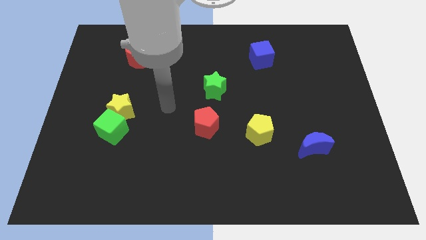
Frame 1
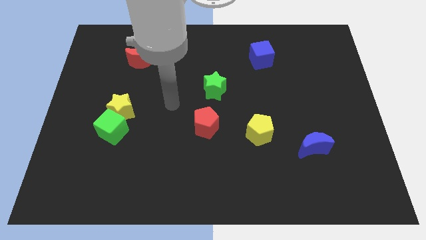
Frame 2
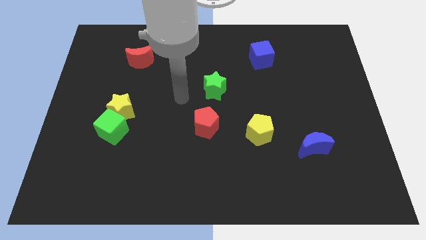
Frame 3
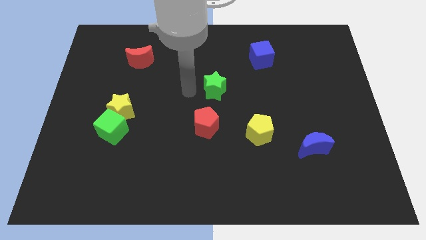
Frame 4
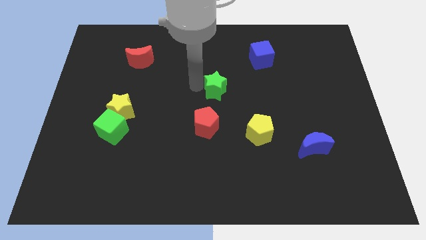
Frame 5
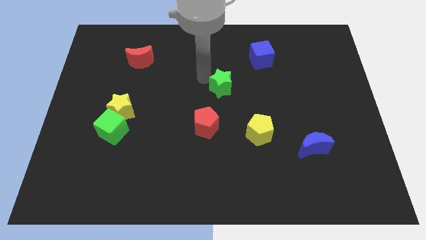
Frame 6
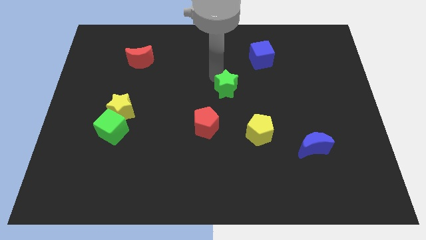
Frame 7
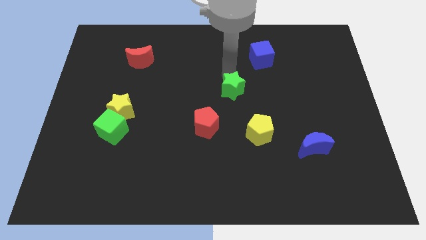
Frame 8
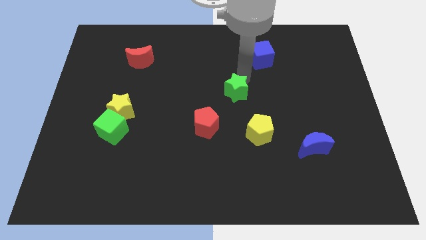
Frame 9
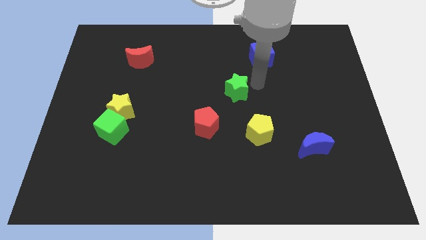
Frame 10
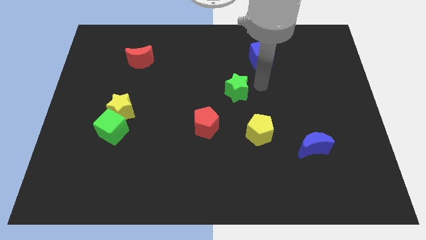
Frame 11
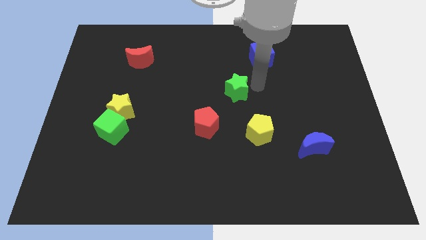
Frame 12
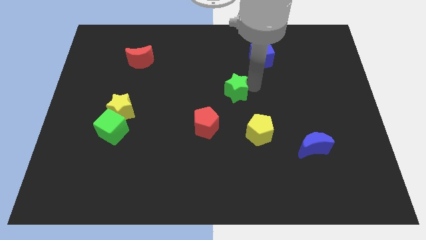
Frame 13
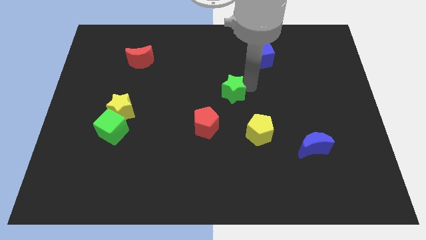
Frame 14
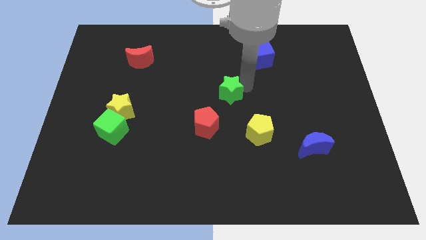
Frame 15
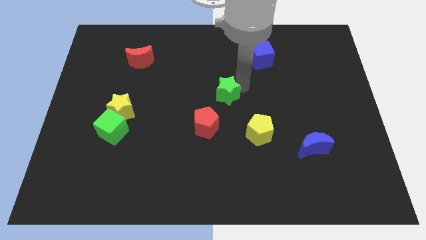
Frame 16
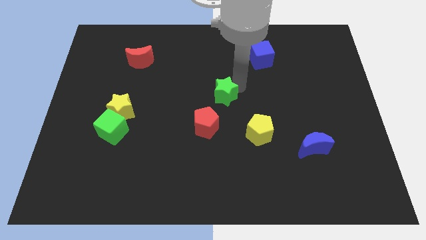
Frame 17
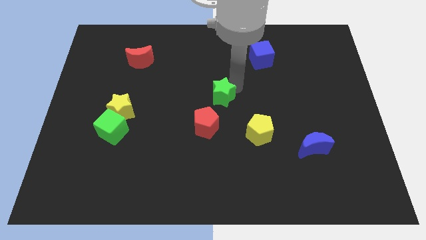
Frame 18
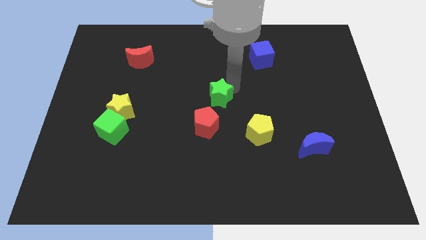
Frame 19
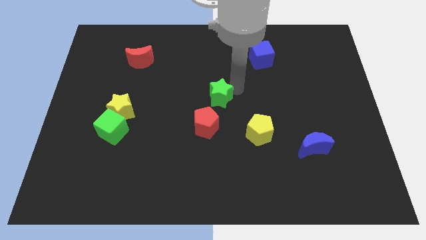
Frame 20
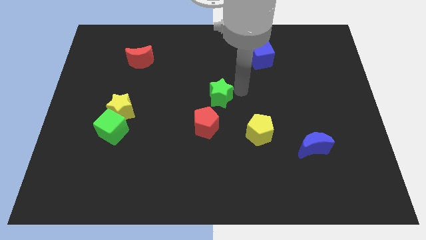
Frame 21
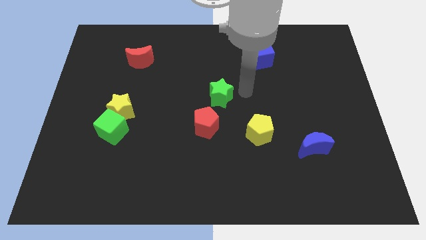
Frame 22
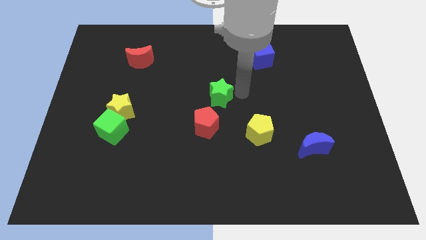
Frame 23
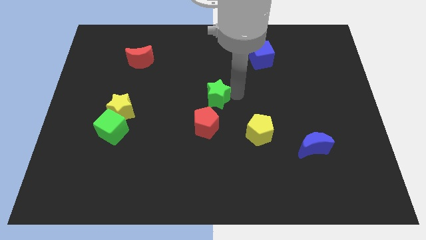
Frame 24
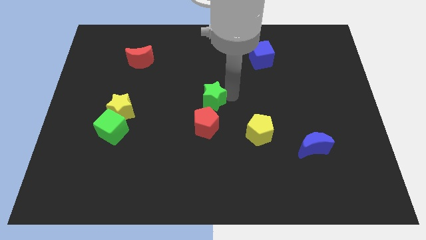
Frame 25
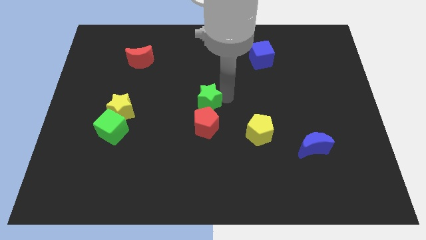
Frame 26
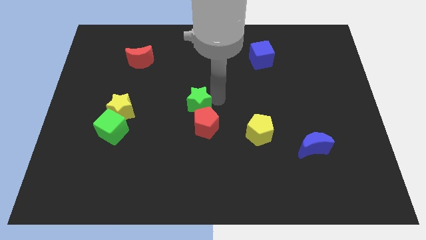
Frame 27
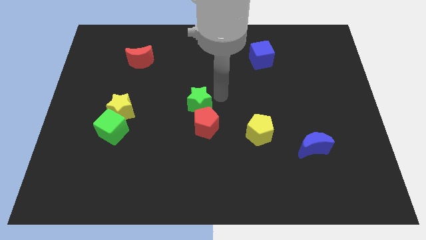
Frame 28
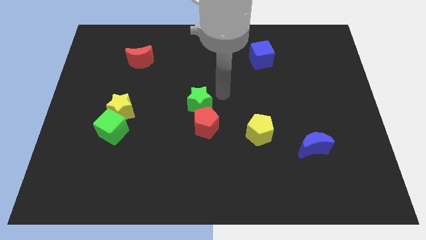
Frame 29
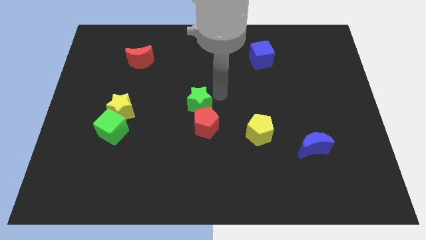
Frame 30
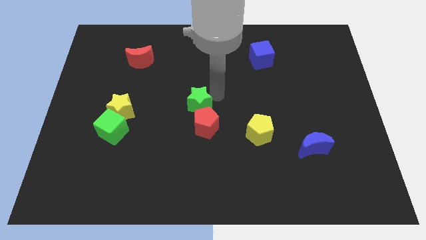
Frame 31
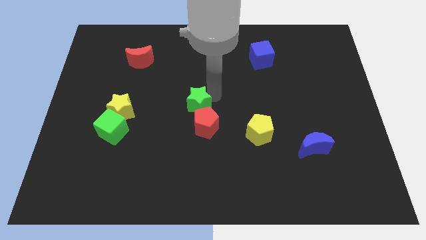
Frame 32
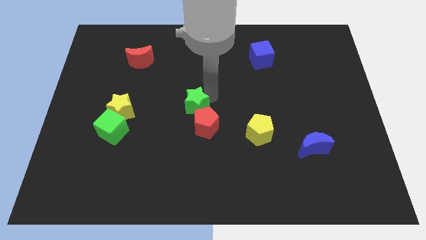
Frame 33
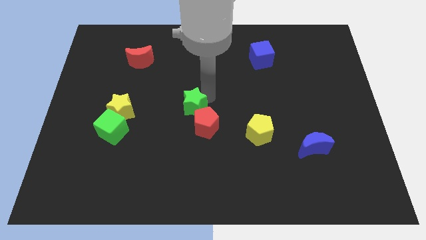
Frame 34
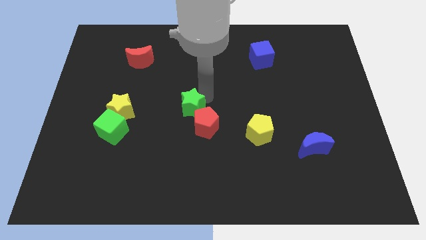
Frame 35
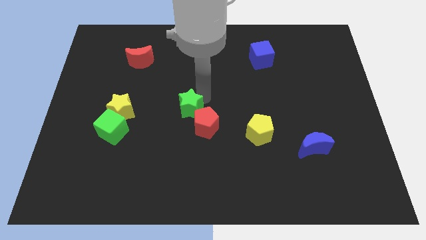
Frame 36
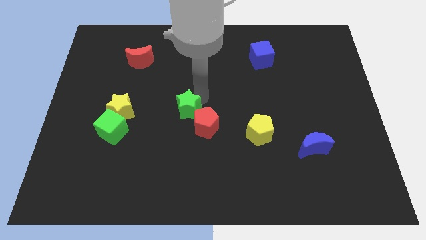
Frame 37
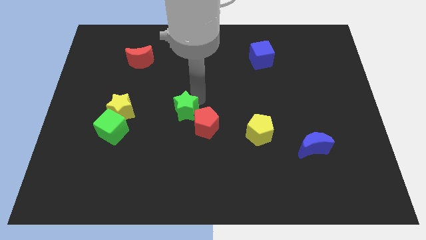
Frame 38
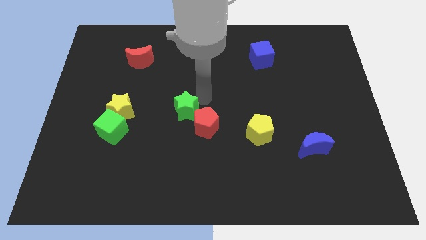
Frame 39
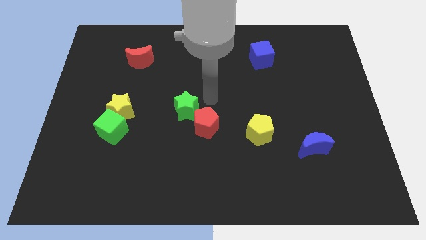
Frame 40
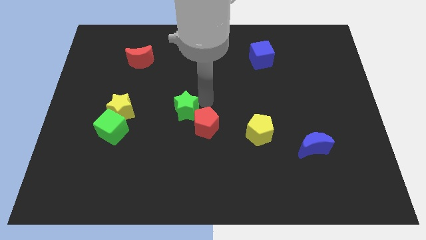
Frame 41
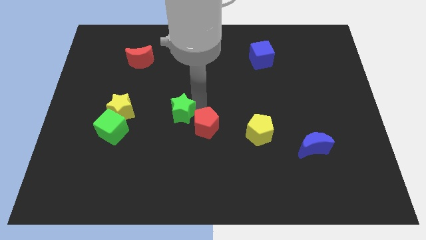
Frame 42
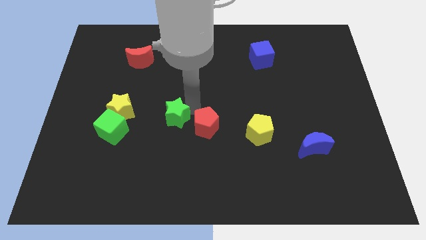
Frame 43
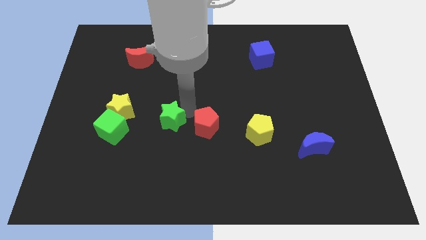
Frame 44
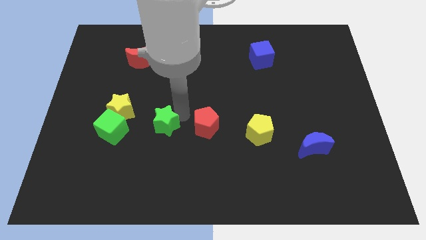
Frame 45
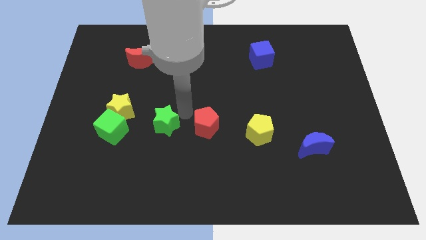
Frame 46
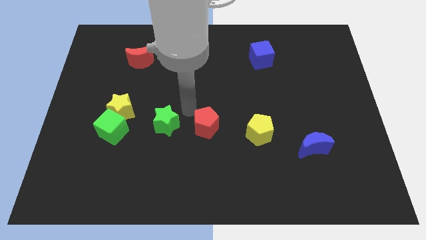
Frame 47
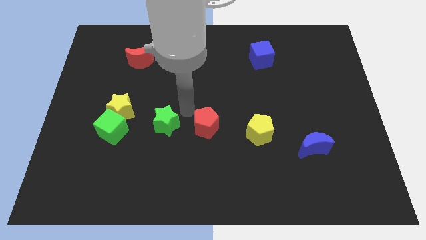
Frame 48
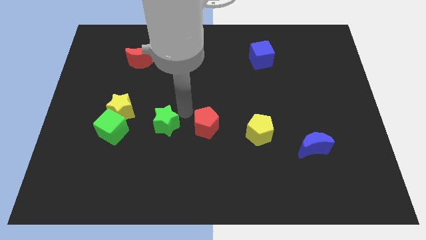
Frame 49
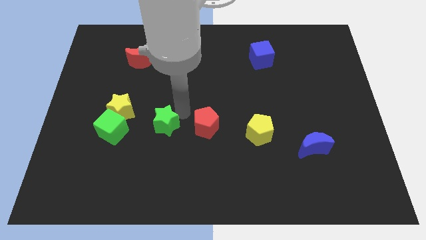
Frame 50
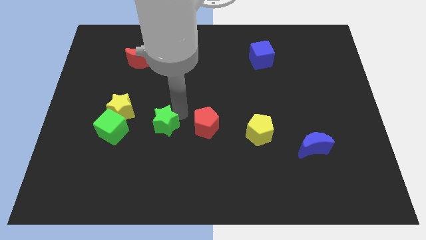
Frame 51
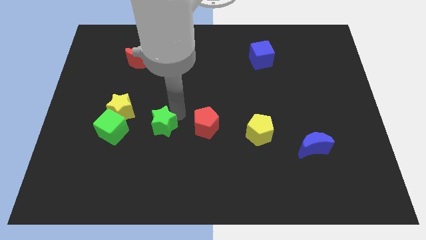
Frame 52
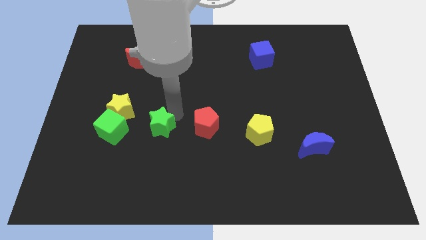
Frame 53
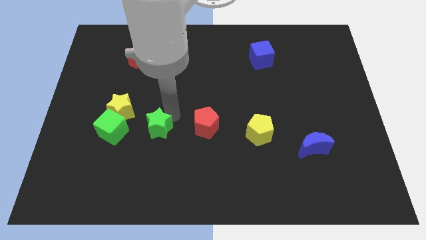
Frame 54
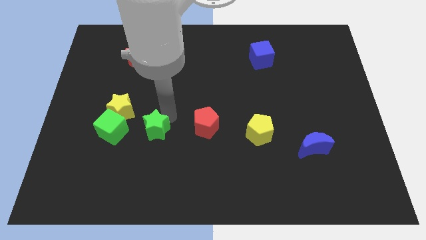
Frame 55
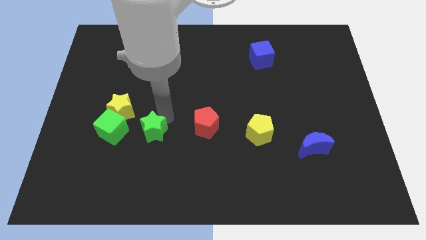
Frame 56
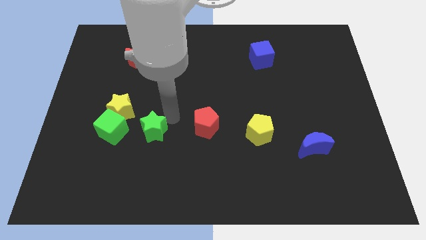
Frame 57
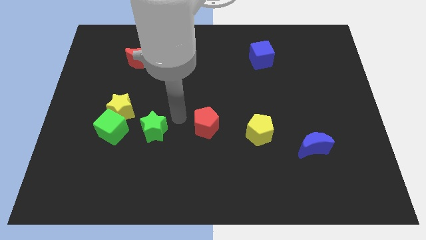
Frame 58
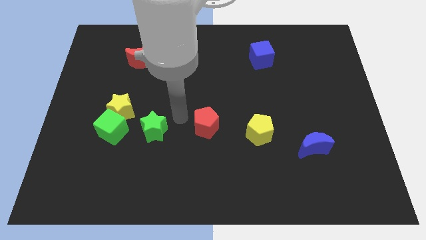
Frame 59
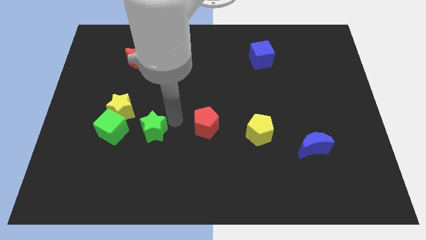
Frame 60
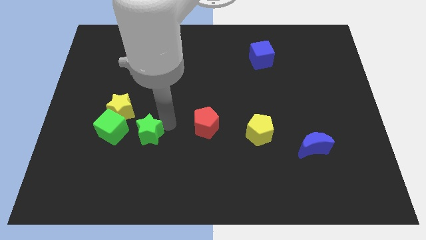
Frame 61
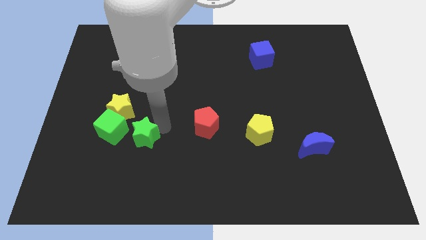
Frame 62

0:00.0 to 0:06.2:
move the green star downwards and then to the left

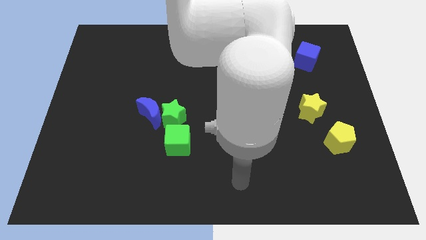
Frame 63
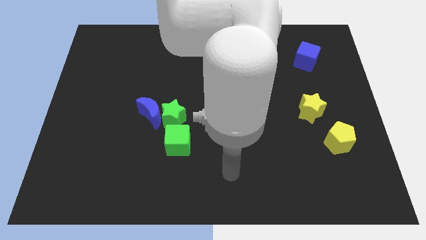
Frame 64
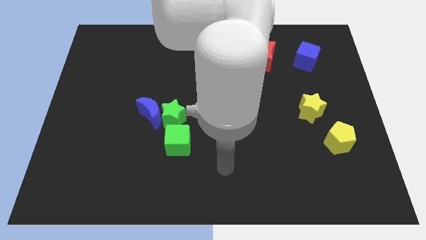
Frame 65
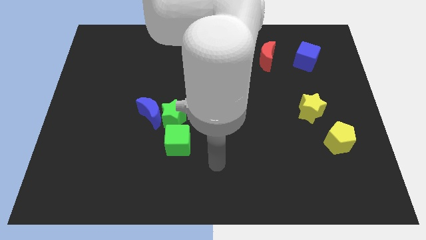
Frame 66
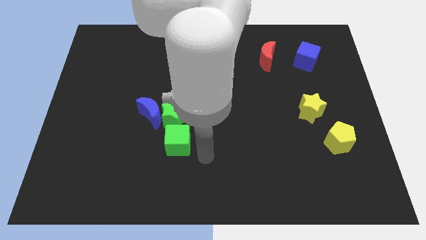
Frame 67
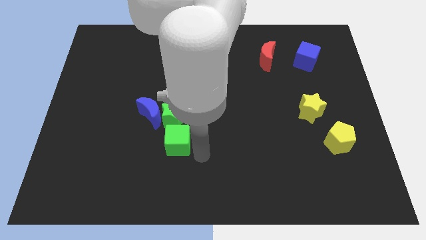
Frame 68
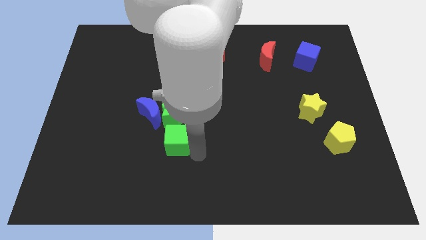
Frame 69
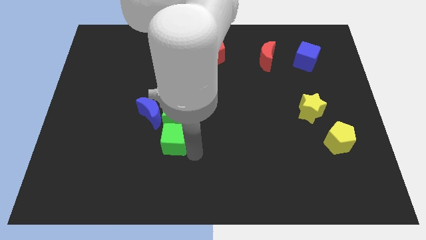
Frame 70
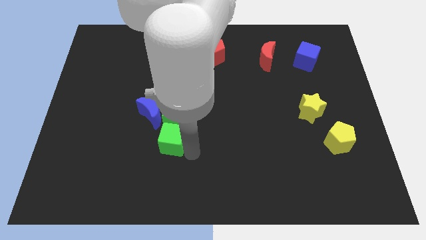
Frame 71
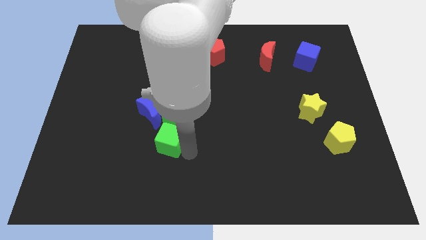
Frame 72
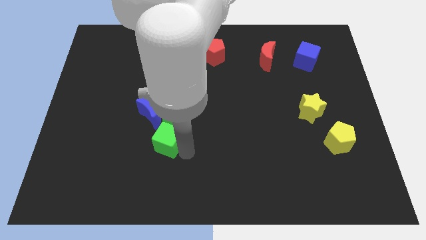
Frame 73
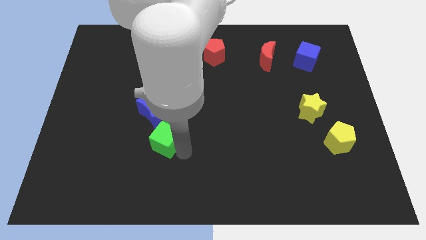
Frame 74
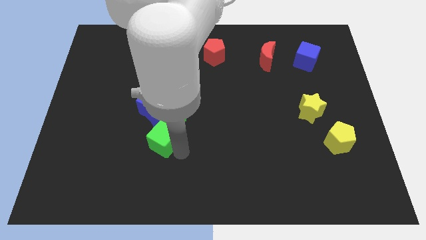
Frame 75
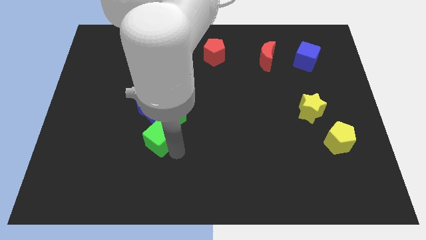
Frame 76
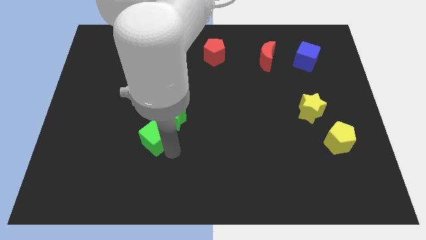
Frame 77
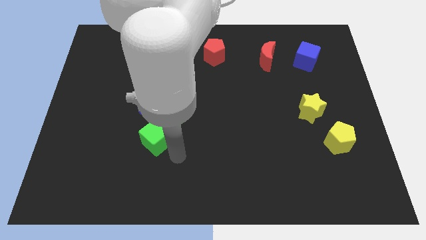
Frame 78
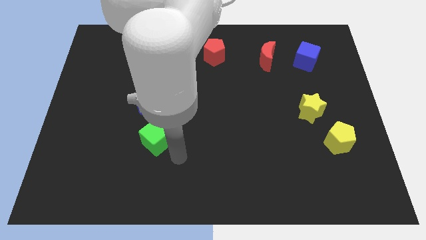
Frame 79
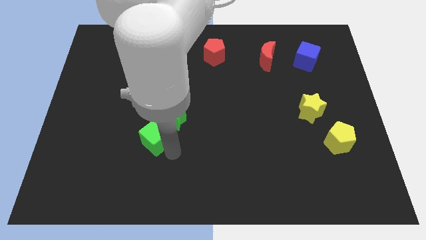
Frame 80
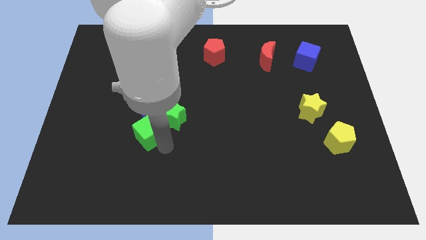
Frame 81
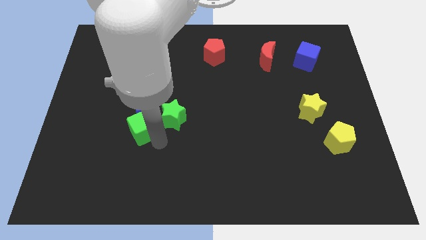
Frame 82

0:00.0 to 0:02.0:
move the green cube somewhat up and left diagonally

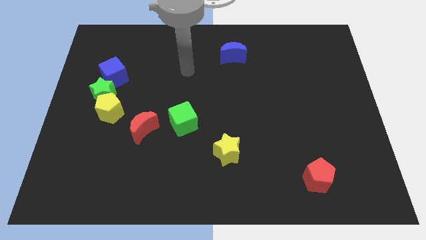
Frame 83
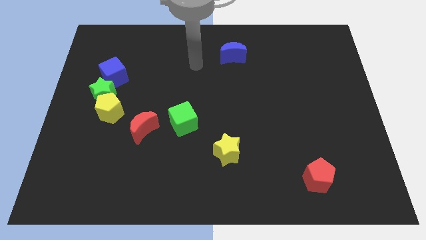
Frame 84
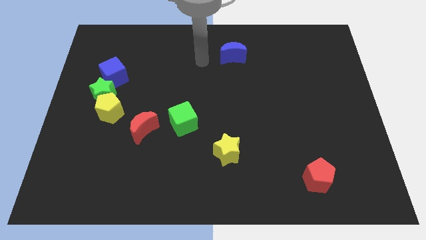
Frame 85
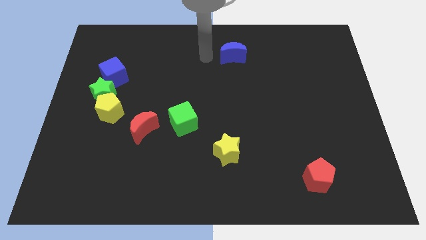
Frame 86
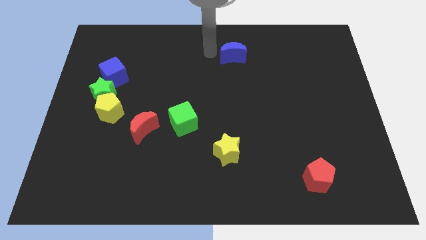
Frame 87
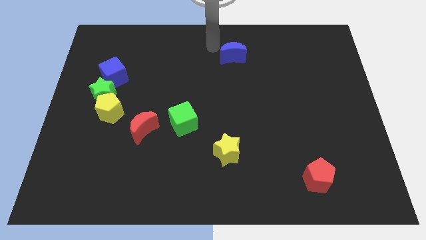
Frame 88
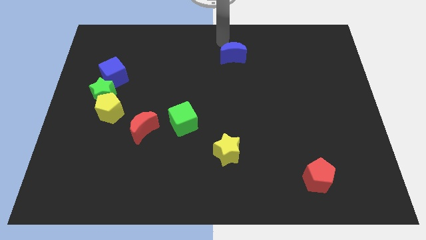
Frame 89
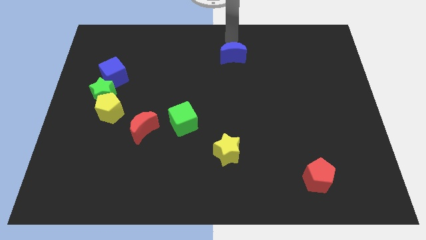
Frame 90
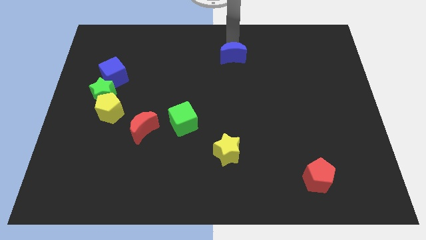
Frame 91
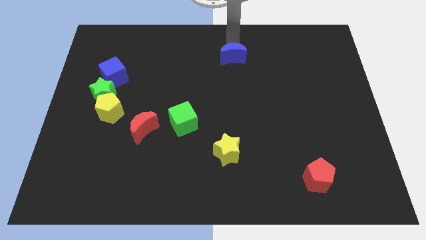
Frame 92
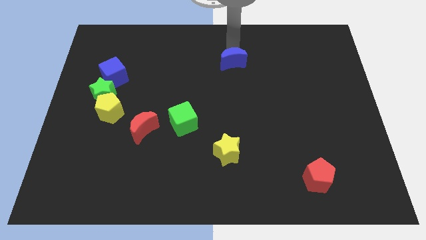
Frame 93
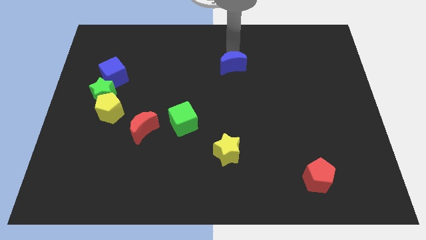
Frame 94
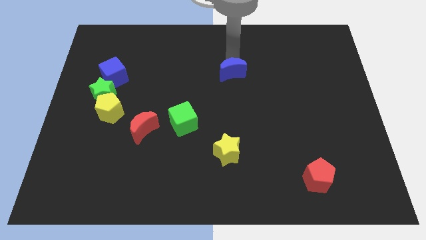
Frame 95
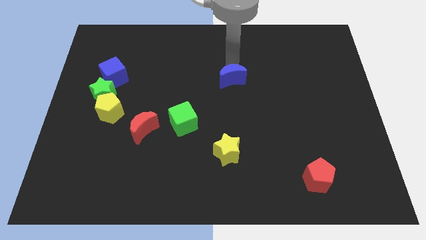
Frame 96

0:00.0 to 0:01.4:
slide the blue moon a little downwards
